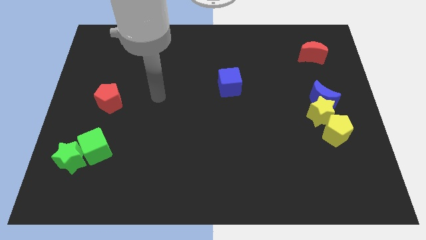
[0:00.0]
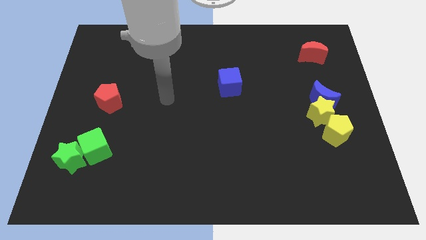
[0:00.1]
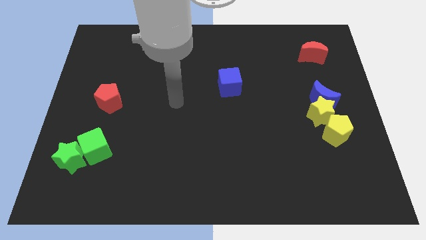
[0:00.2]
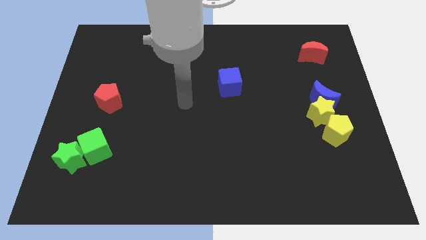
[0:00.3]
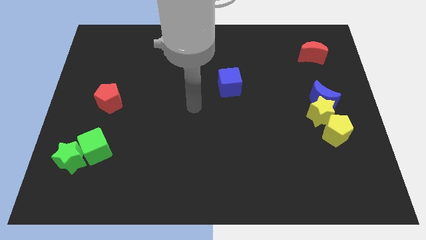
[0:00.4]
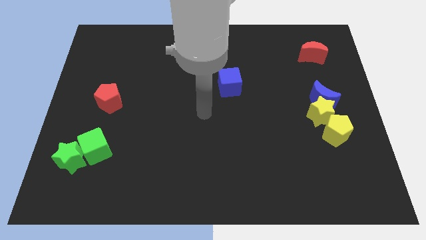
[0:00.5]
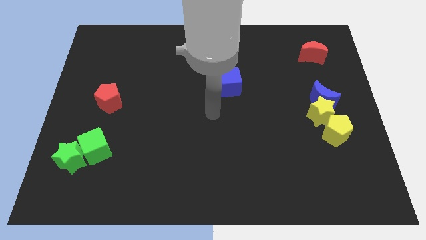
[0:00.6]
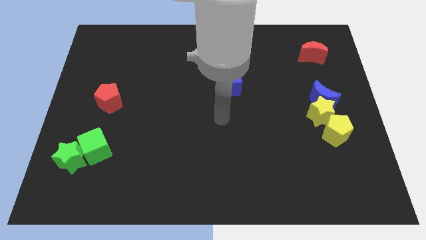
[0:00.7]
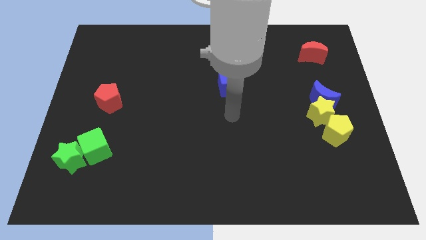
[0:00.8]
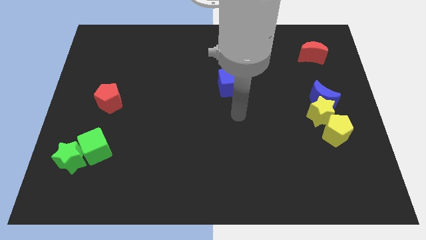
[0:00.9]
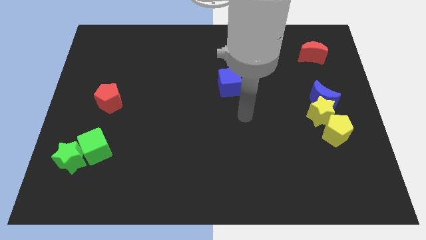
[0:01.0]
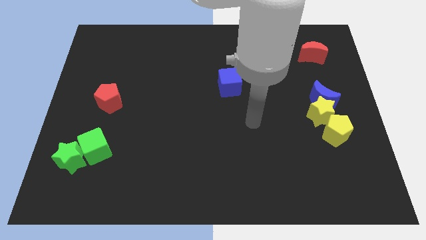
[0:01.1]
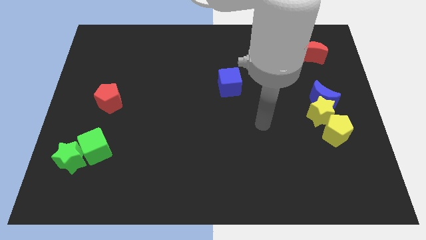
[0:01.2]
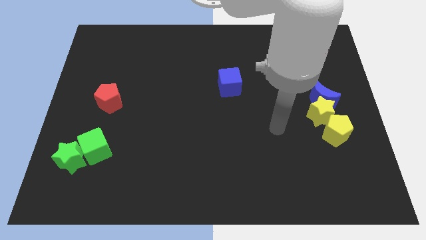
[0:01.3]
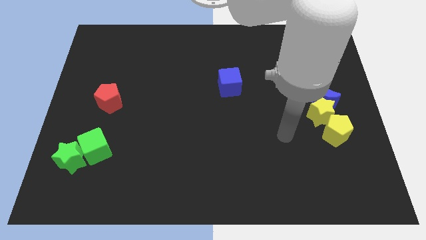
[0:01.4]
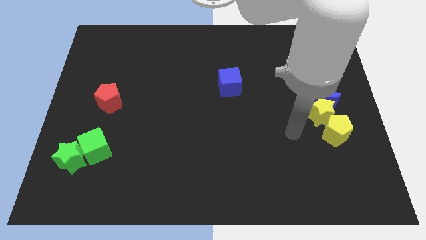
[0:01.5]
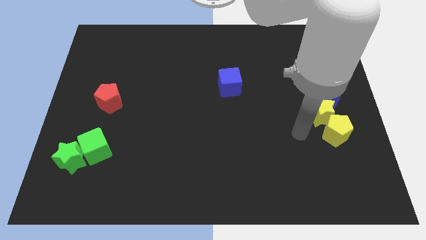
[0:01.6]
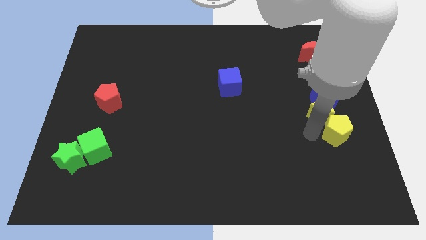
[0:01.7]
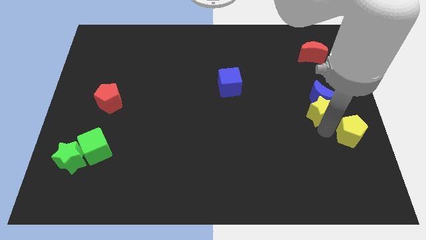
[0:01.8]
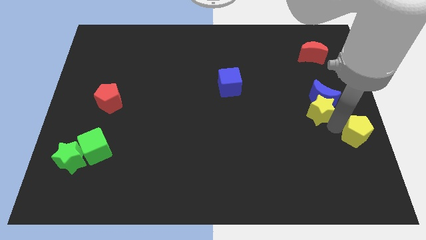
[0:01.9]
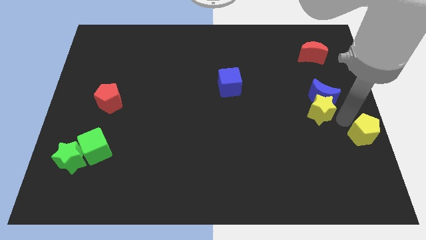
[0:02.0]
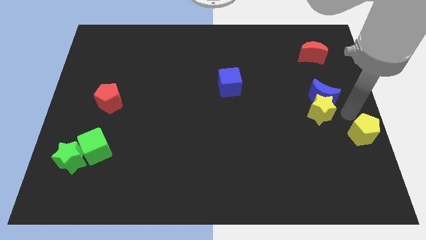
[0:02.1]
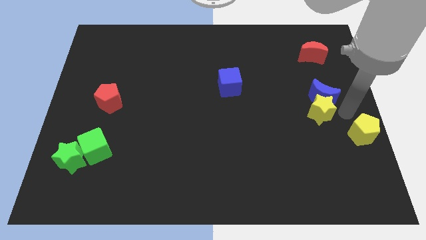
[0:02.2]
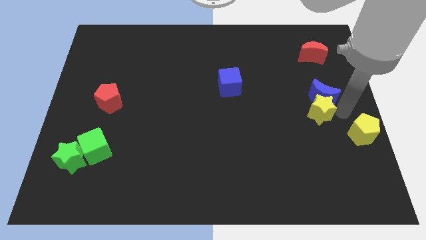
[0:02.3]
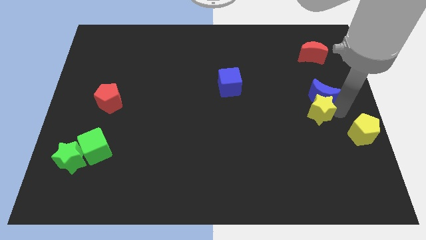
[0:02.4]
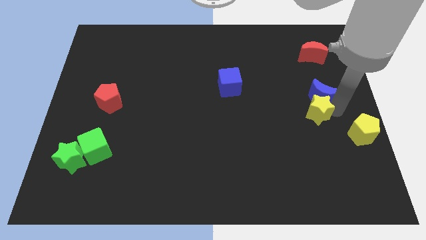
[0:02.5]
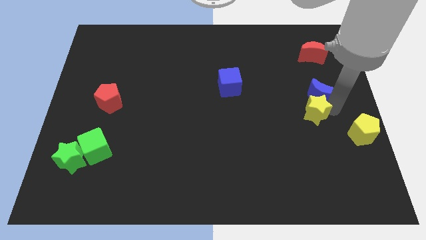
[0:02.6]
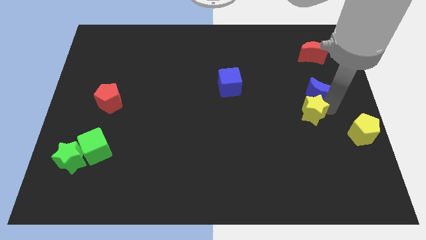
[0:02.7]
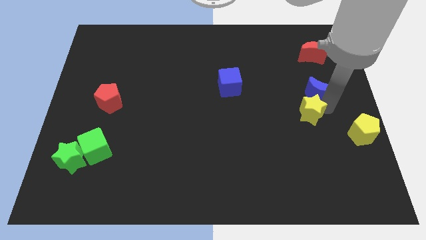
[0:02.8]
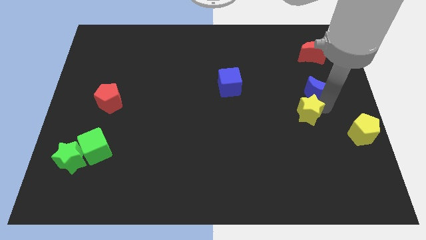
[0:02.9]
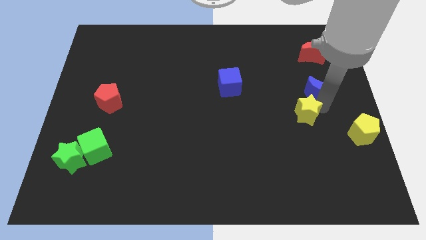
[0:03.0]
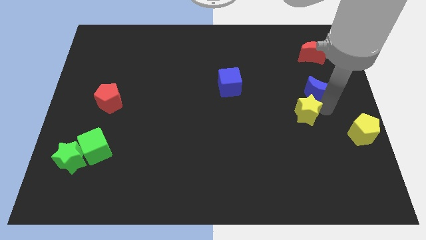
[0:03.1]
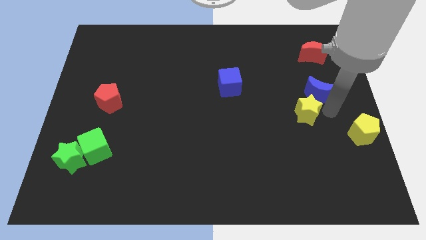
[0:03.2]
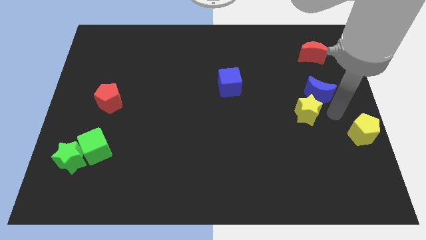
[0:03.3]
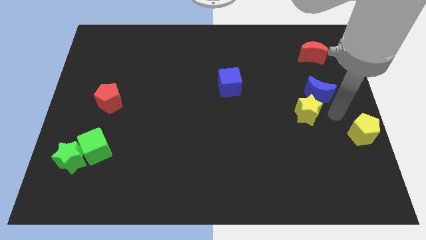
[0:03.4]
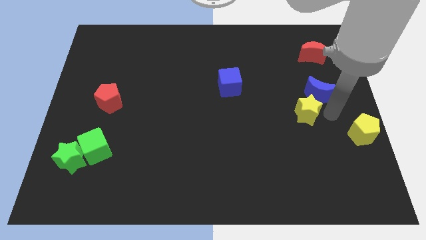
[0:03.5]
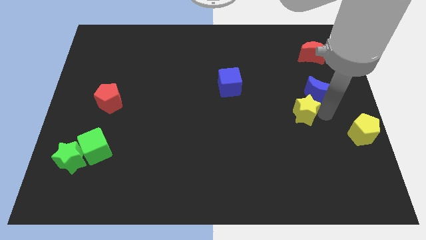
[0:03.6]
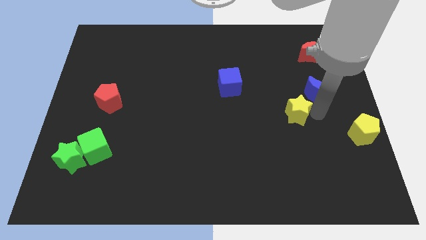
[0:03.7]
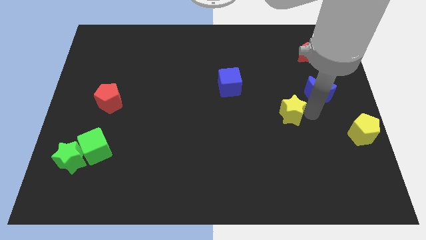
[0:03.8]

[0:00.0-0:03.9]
separate the yellow star from the blue moon and yellow pentagon

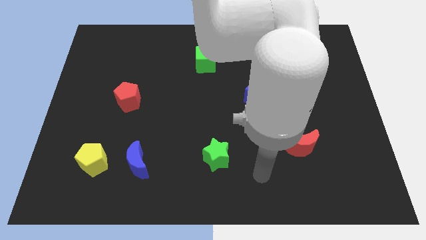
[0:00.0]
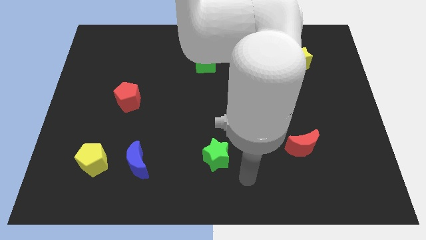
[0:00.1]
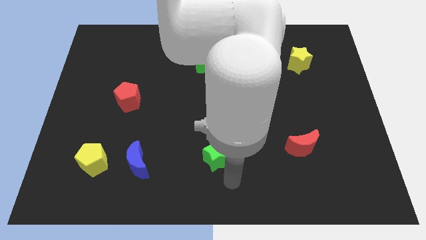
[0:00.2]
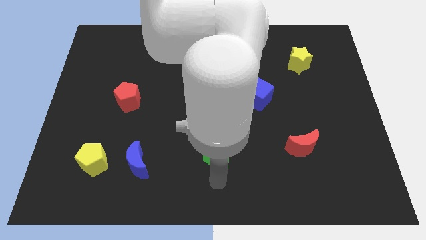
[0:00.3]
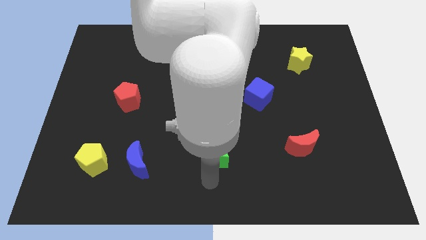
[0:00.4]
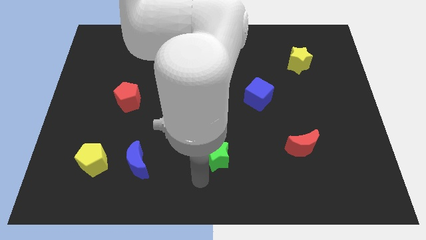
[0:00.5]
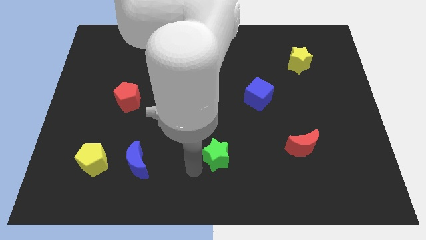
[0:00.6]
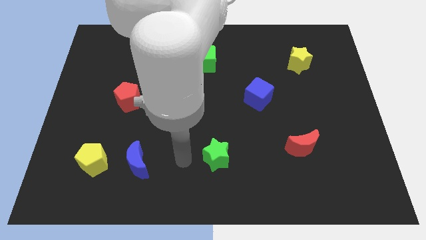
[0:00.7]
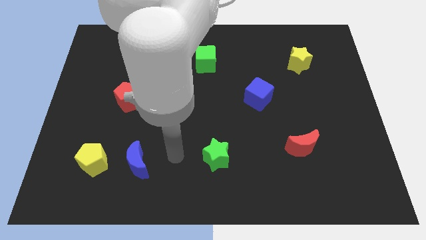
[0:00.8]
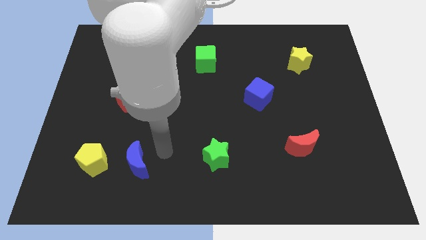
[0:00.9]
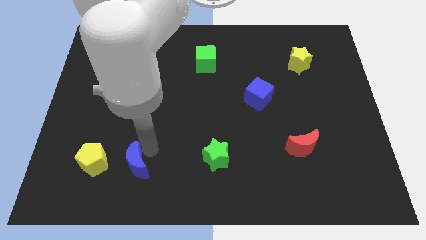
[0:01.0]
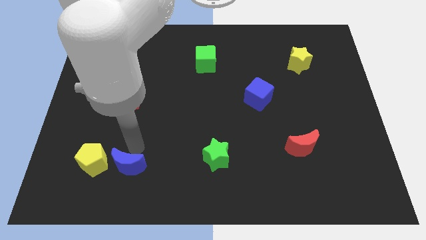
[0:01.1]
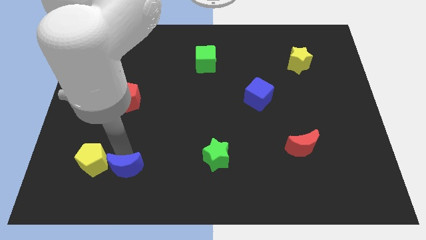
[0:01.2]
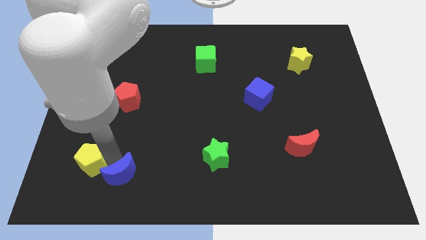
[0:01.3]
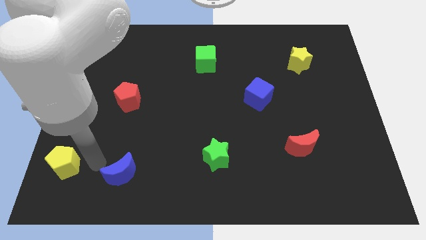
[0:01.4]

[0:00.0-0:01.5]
separate the blue moon from the yellow pentagon

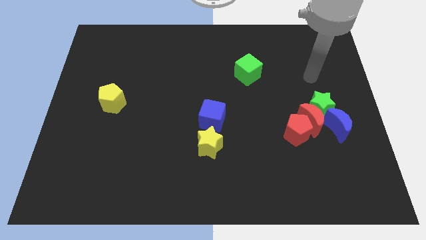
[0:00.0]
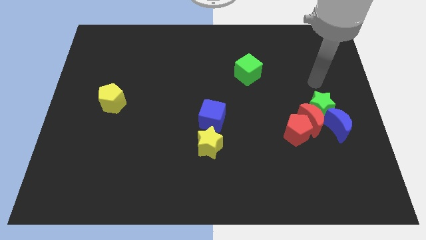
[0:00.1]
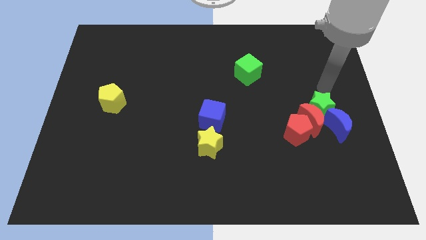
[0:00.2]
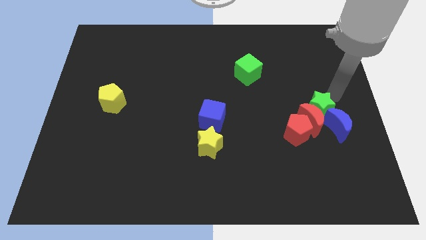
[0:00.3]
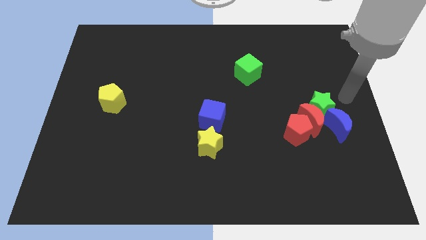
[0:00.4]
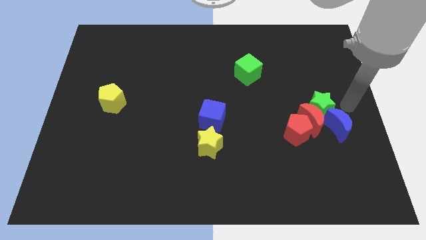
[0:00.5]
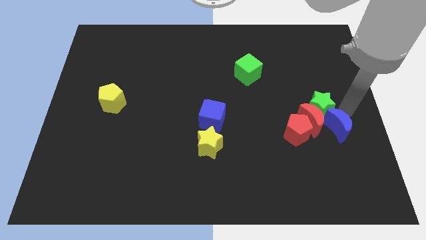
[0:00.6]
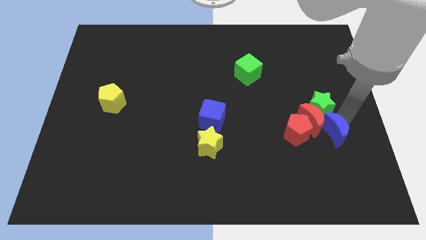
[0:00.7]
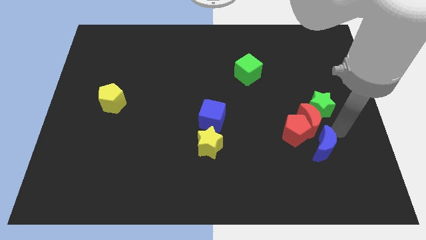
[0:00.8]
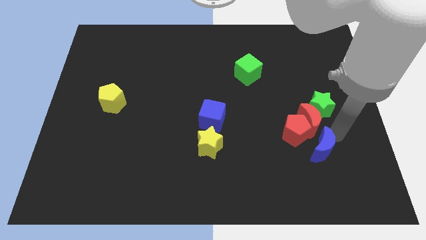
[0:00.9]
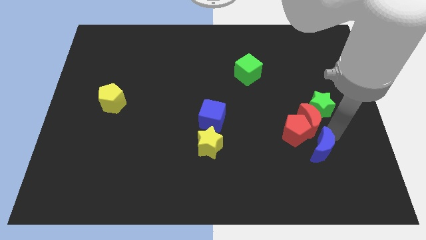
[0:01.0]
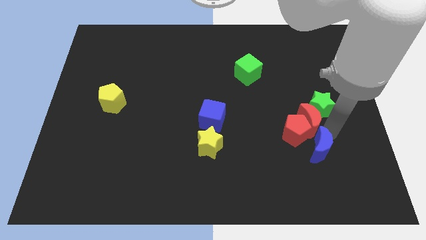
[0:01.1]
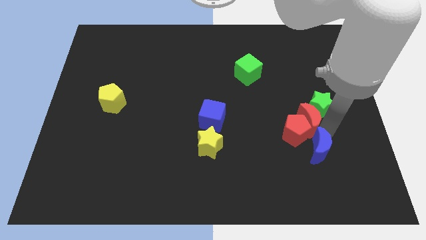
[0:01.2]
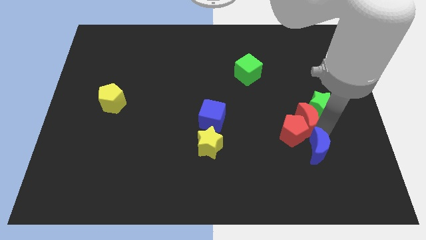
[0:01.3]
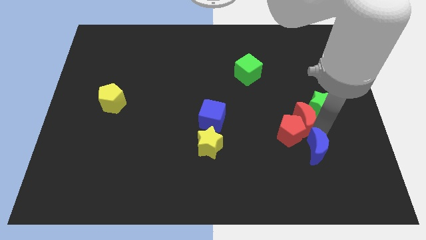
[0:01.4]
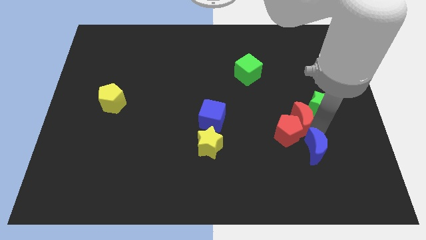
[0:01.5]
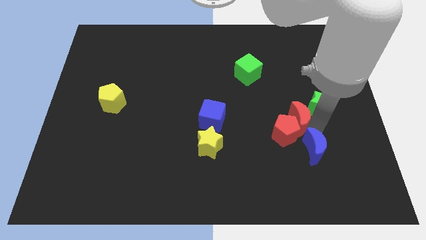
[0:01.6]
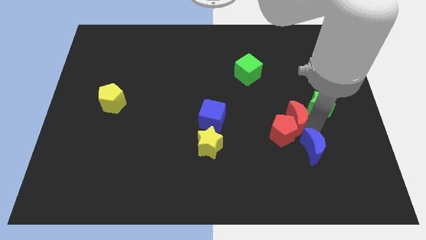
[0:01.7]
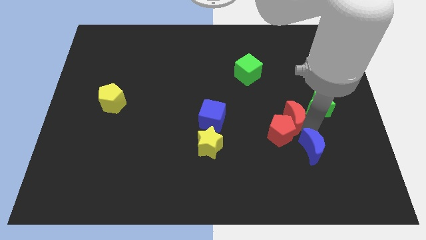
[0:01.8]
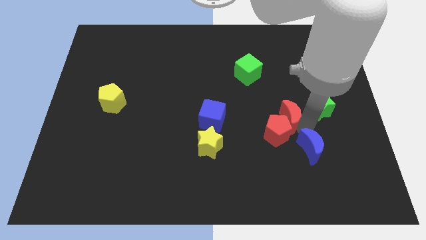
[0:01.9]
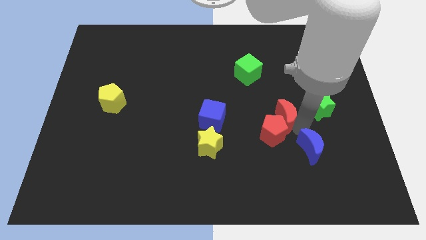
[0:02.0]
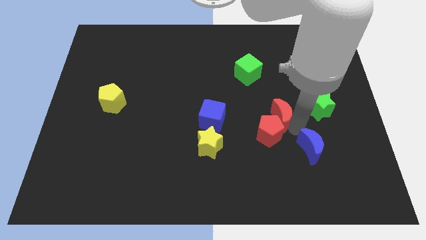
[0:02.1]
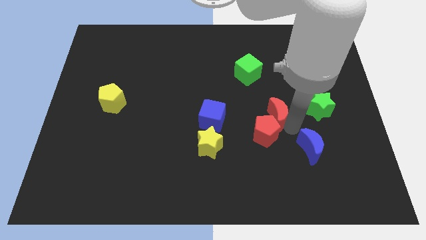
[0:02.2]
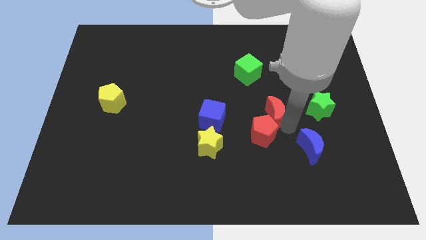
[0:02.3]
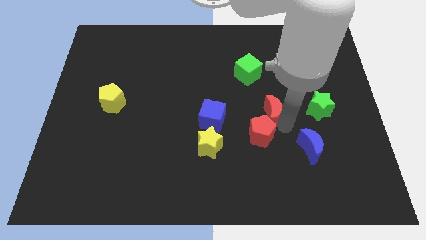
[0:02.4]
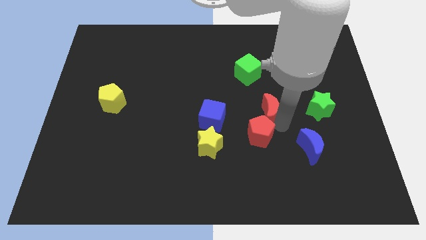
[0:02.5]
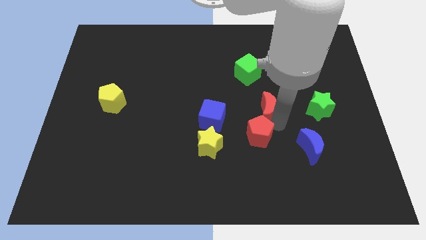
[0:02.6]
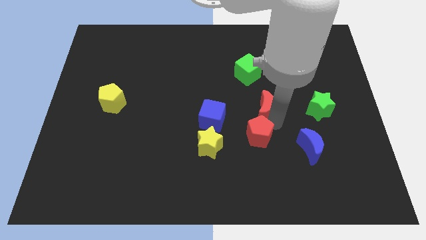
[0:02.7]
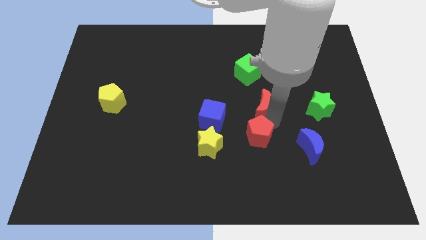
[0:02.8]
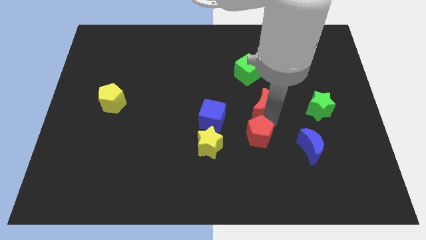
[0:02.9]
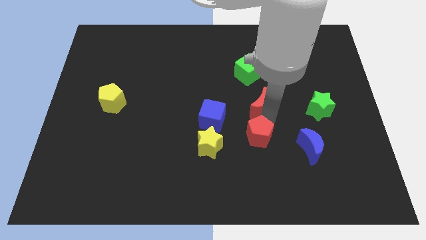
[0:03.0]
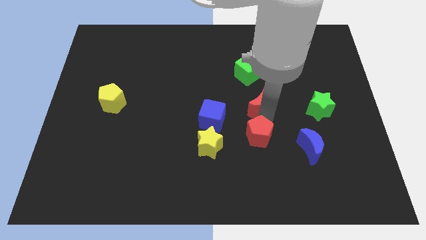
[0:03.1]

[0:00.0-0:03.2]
move the red moon away from the clump

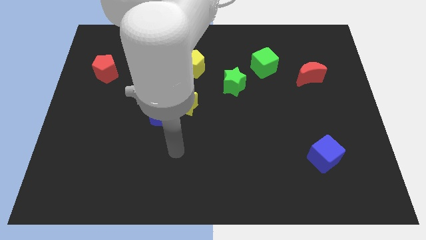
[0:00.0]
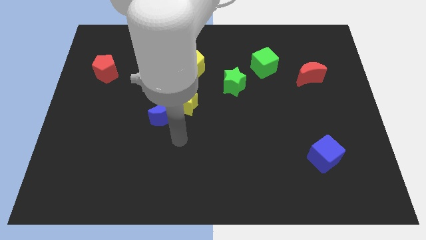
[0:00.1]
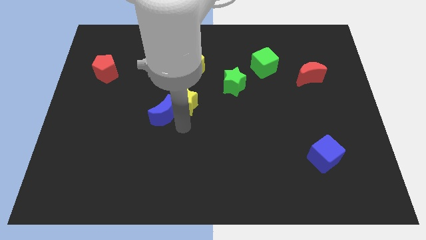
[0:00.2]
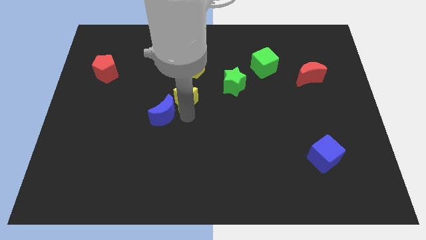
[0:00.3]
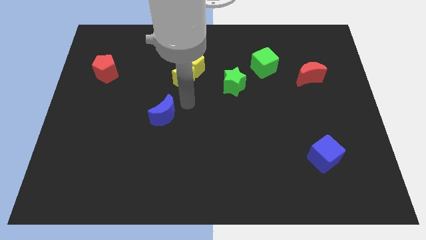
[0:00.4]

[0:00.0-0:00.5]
separate the blue moon from the yellow star

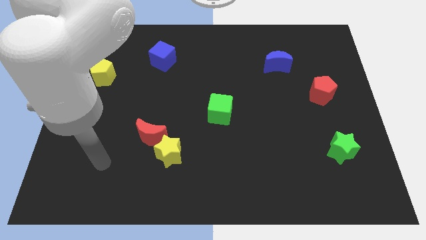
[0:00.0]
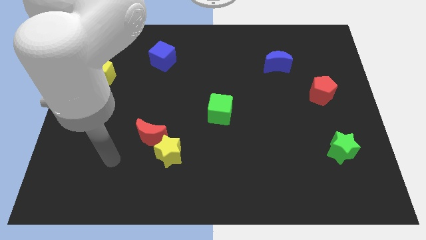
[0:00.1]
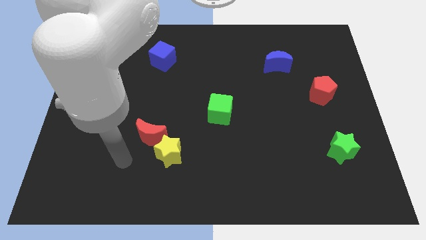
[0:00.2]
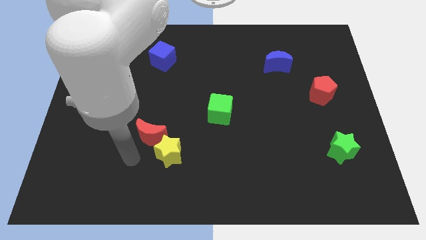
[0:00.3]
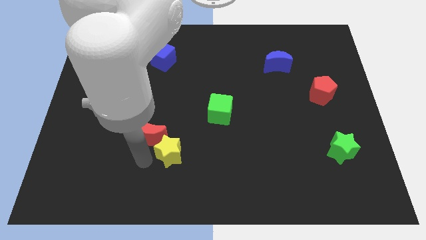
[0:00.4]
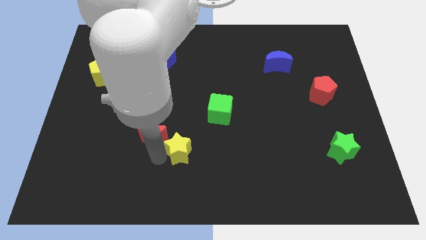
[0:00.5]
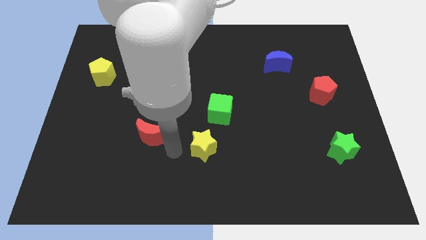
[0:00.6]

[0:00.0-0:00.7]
separate the red moon from the yellow star
